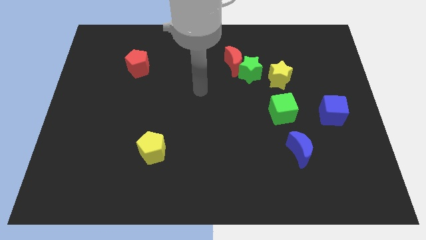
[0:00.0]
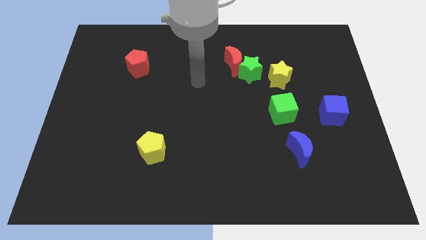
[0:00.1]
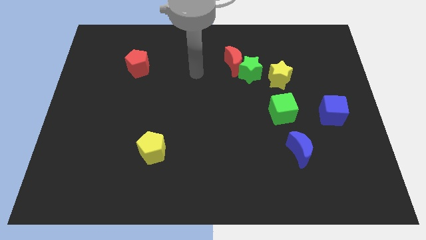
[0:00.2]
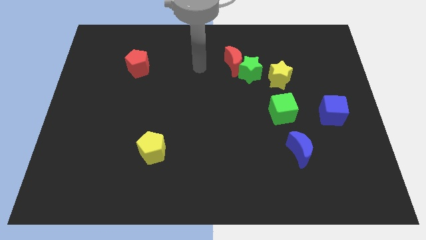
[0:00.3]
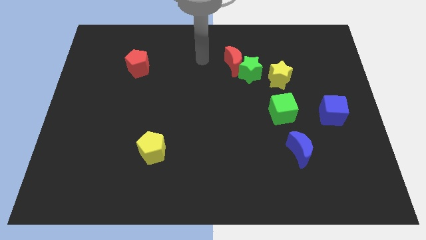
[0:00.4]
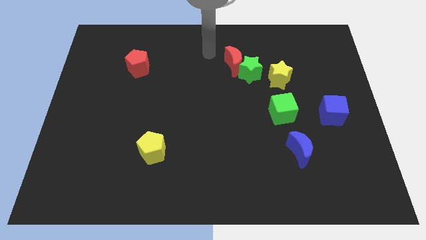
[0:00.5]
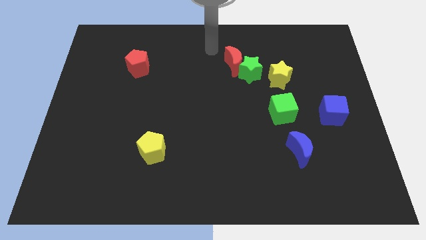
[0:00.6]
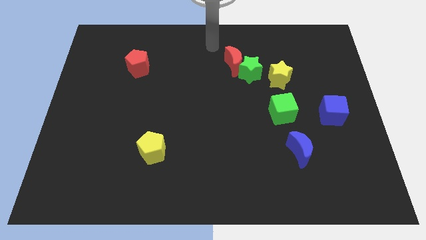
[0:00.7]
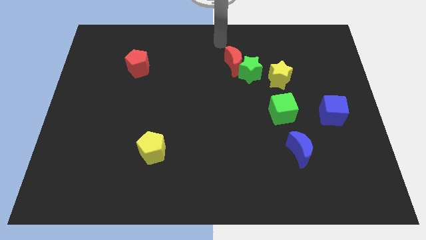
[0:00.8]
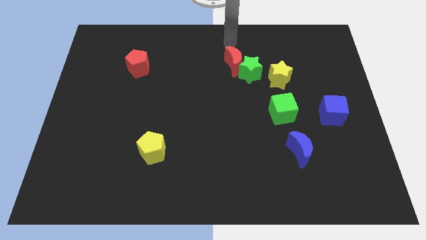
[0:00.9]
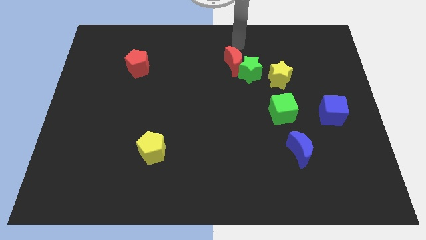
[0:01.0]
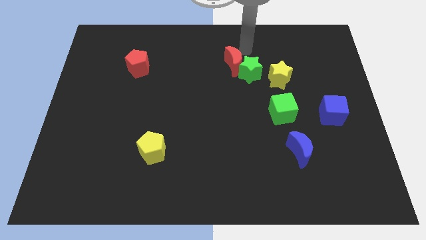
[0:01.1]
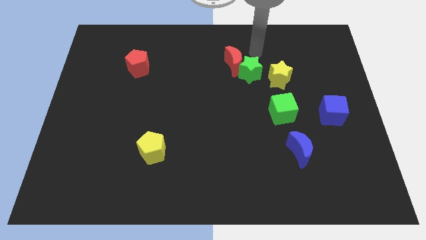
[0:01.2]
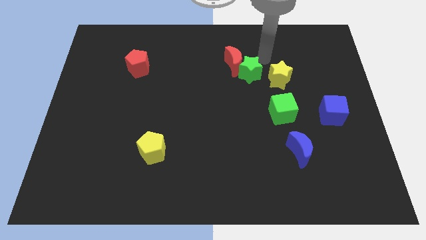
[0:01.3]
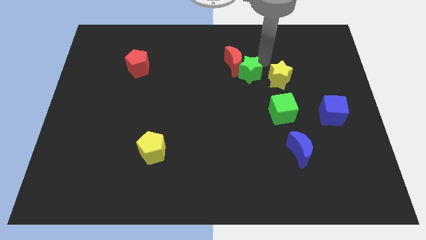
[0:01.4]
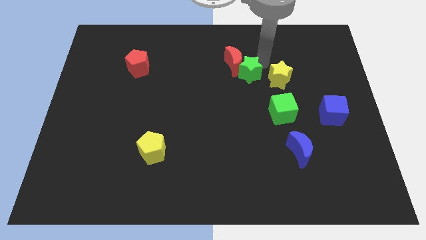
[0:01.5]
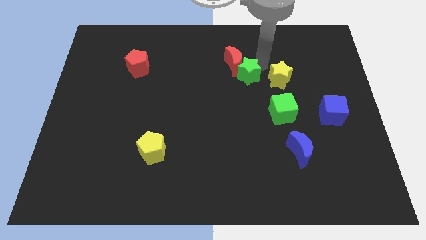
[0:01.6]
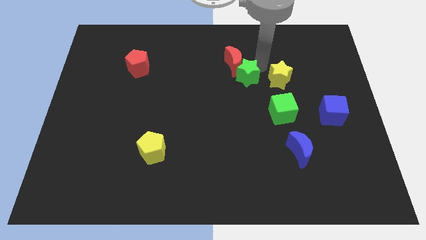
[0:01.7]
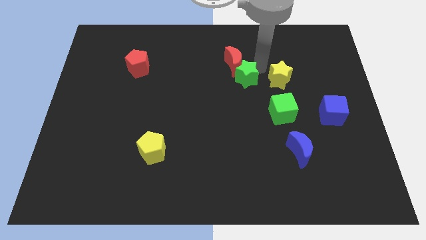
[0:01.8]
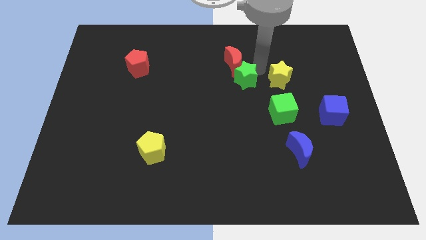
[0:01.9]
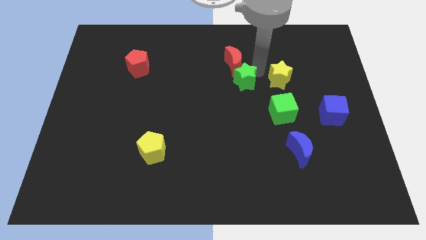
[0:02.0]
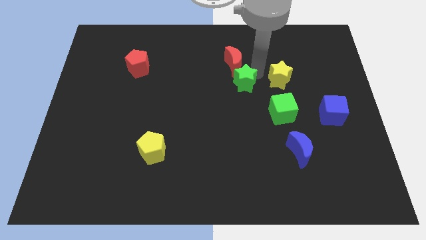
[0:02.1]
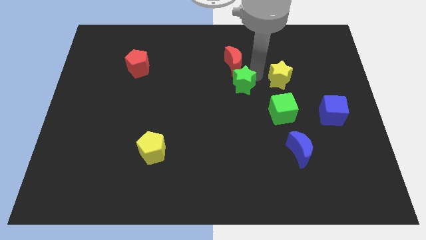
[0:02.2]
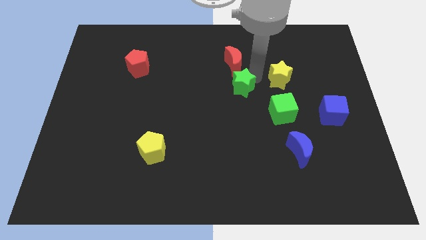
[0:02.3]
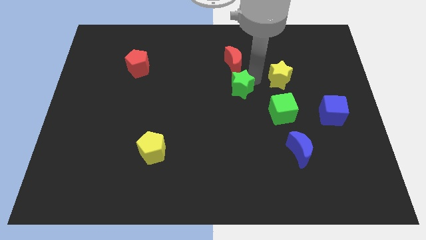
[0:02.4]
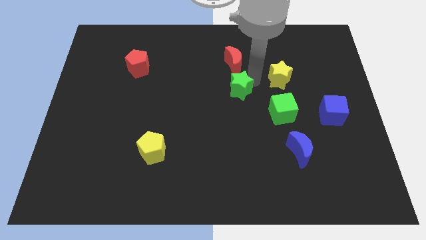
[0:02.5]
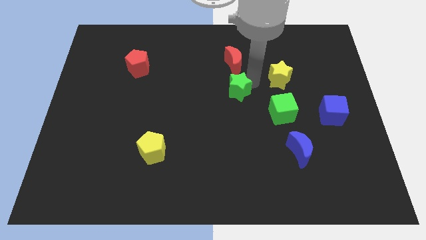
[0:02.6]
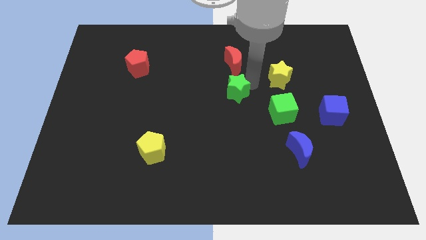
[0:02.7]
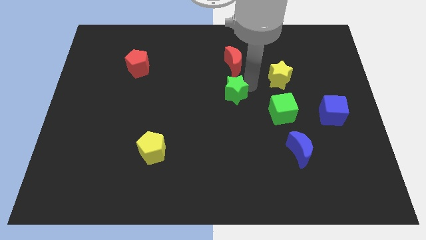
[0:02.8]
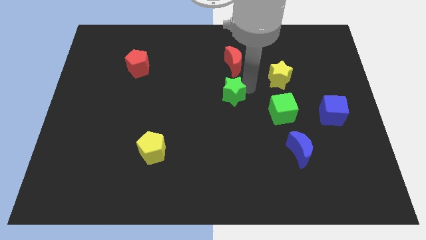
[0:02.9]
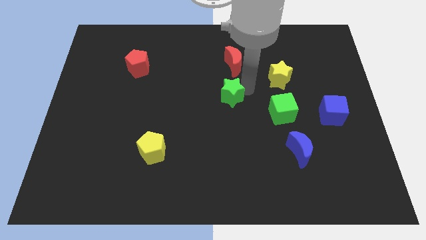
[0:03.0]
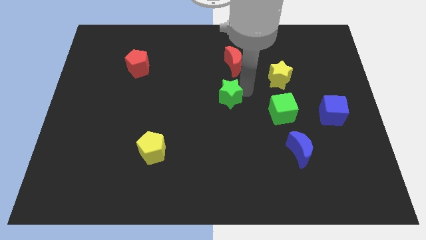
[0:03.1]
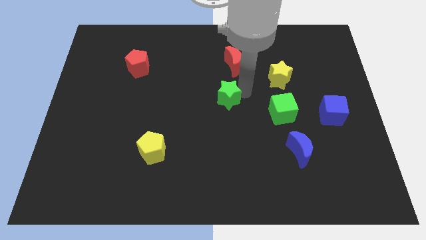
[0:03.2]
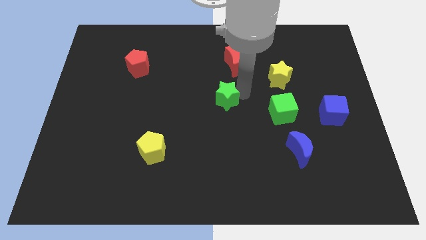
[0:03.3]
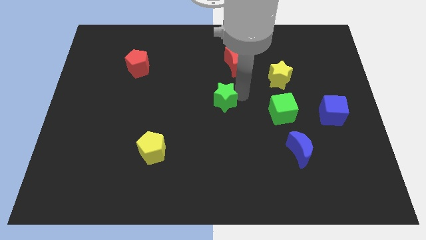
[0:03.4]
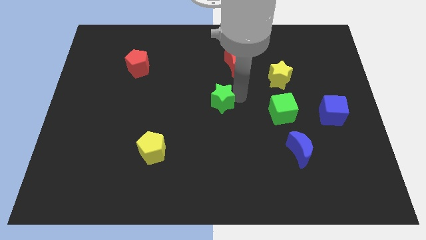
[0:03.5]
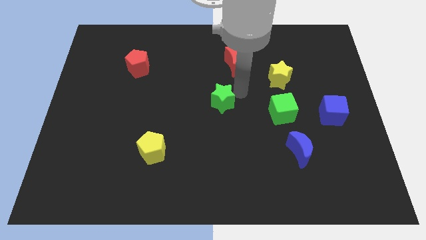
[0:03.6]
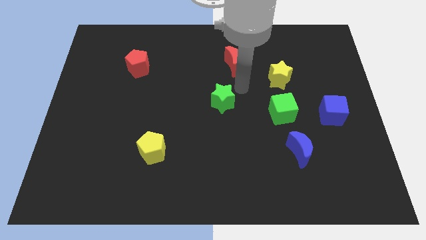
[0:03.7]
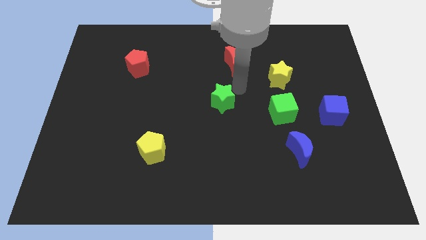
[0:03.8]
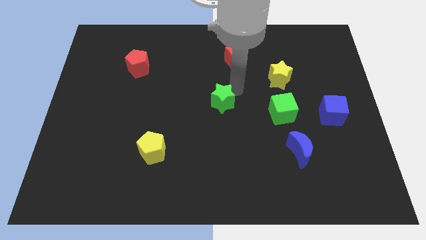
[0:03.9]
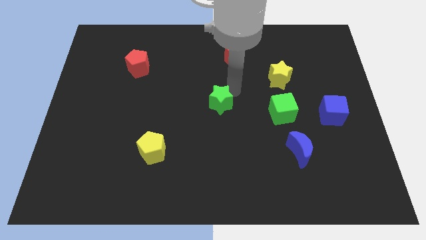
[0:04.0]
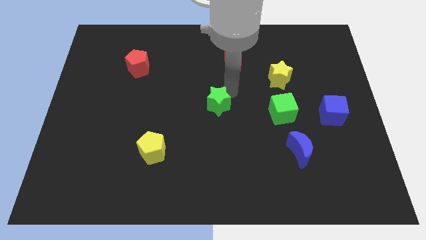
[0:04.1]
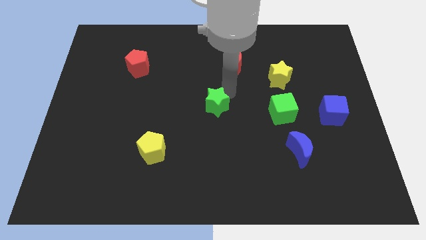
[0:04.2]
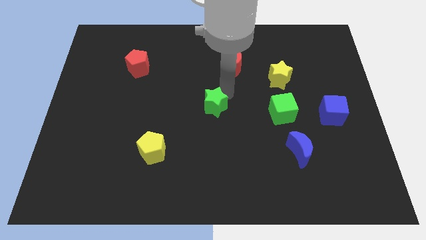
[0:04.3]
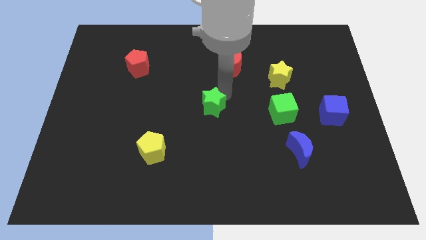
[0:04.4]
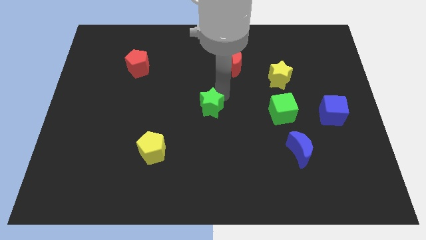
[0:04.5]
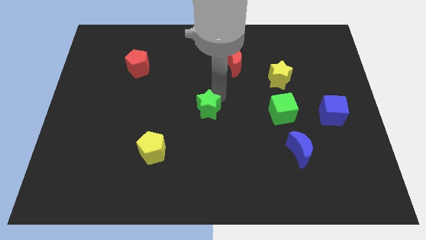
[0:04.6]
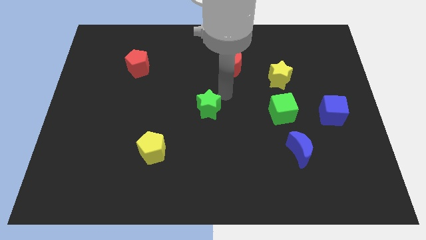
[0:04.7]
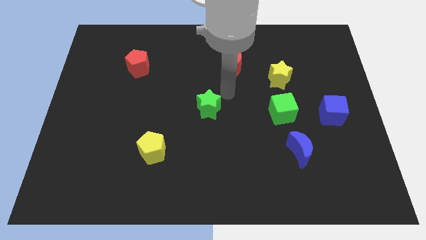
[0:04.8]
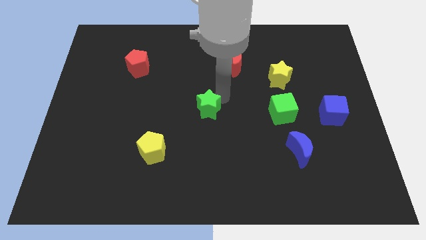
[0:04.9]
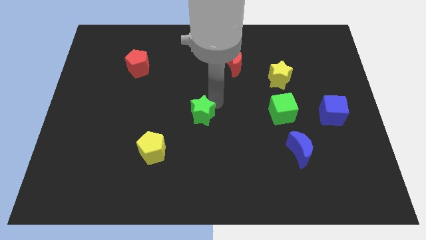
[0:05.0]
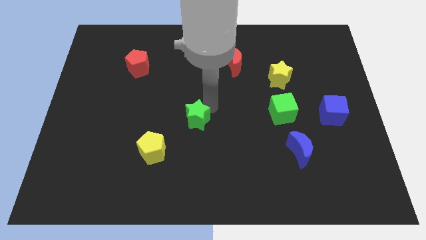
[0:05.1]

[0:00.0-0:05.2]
put the green star to the top right side of the yellow pentagon

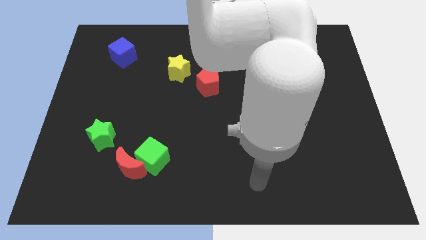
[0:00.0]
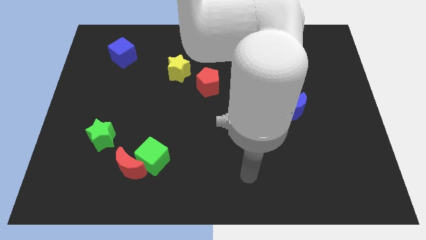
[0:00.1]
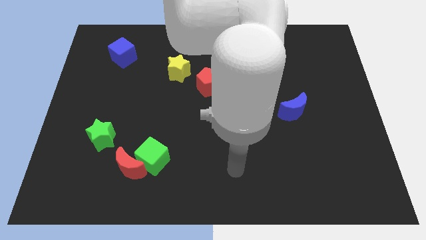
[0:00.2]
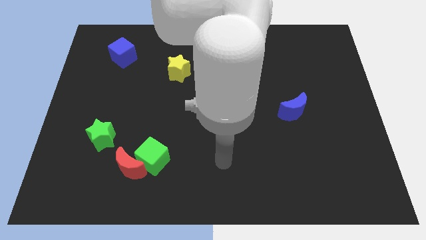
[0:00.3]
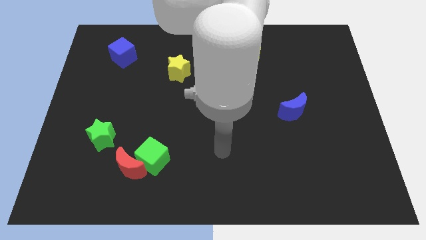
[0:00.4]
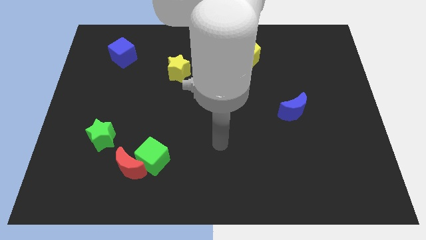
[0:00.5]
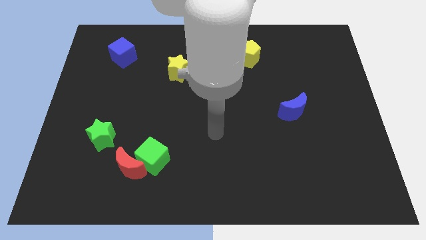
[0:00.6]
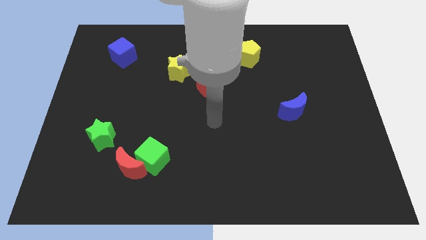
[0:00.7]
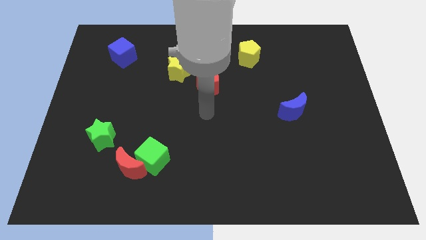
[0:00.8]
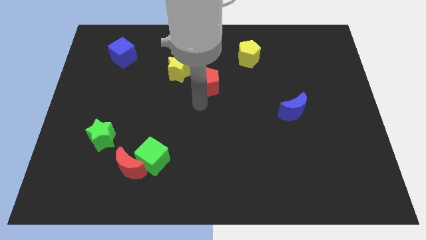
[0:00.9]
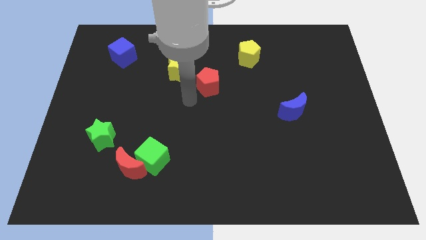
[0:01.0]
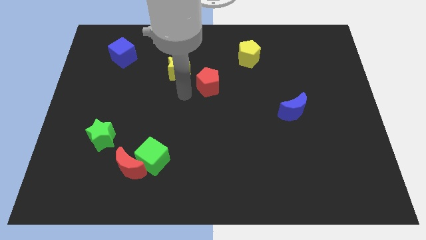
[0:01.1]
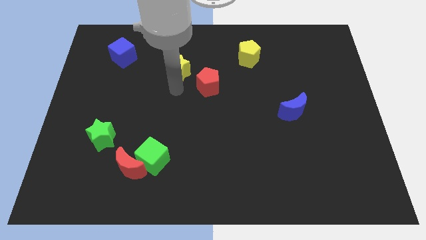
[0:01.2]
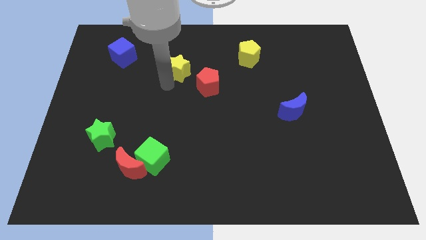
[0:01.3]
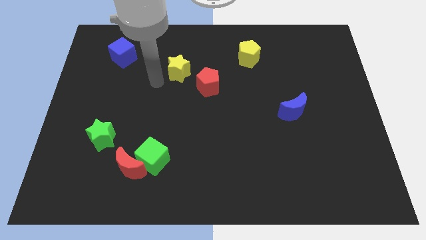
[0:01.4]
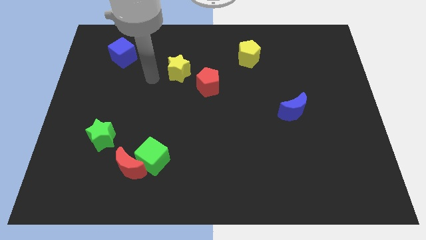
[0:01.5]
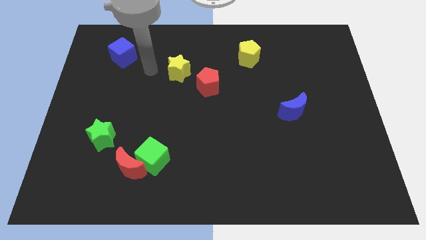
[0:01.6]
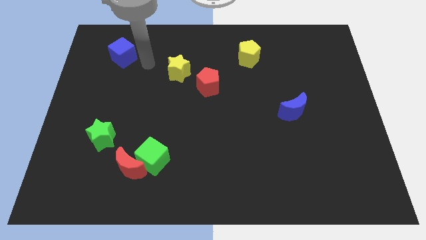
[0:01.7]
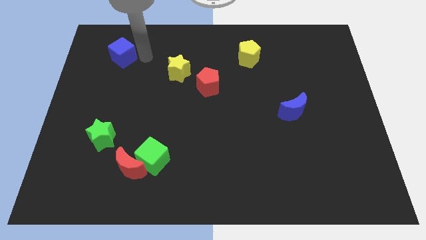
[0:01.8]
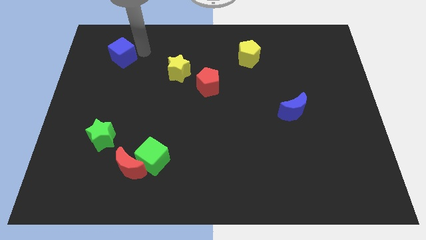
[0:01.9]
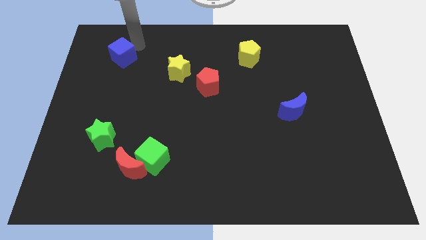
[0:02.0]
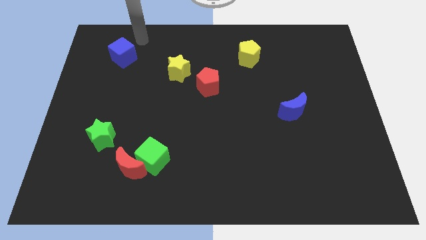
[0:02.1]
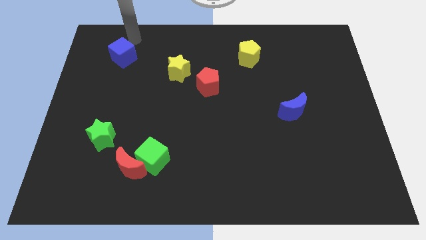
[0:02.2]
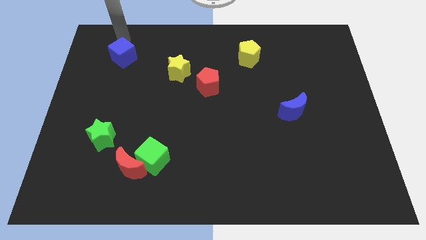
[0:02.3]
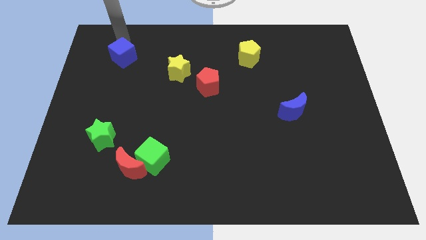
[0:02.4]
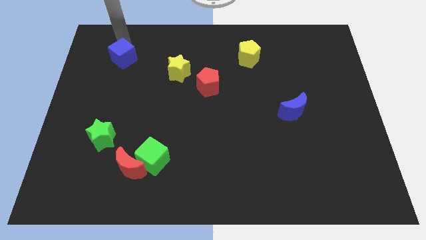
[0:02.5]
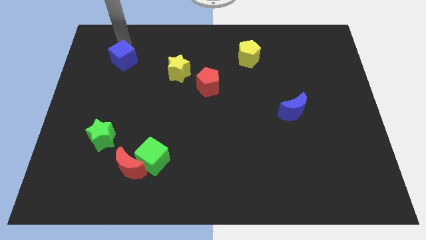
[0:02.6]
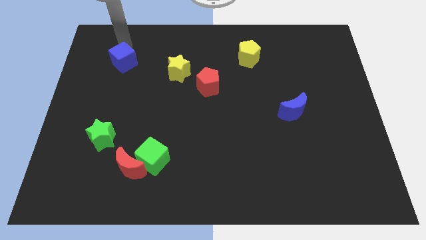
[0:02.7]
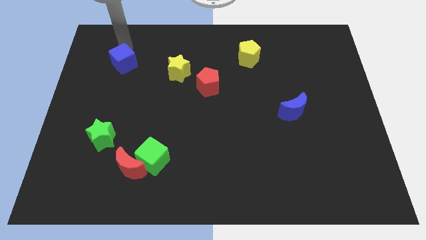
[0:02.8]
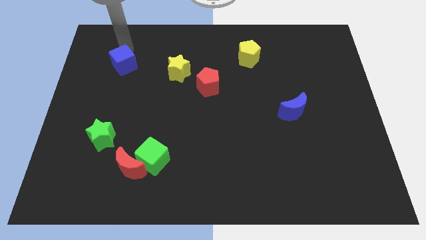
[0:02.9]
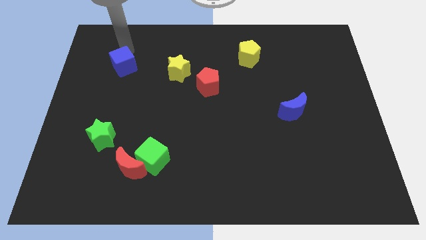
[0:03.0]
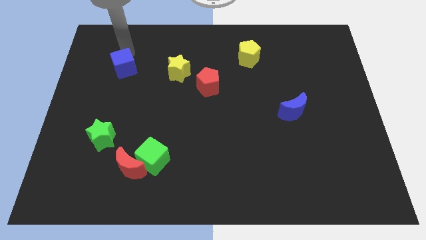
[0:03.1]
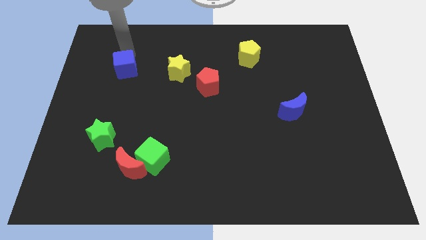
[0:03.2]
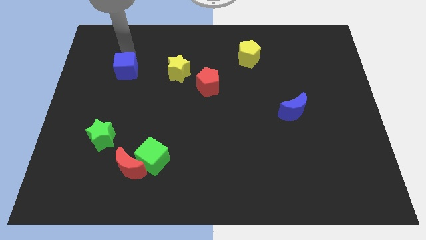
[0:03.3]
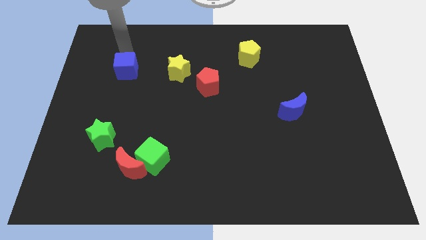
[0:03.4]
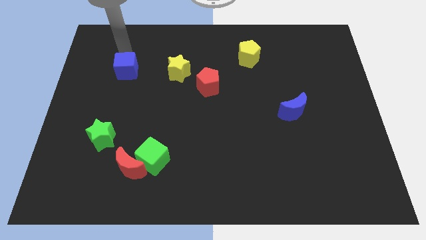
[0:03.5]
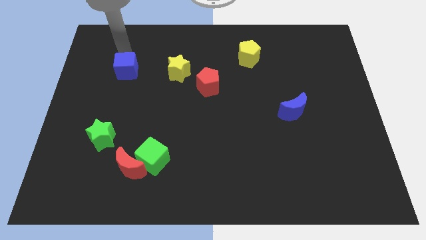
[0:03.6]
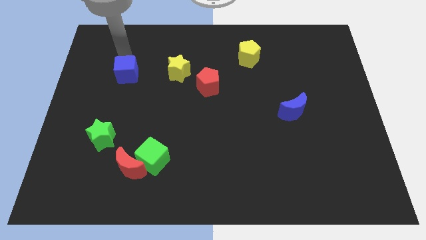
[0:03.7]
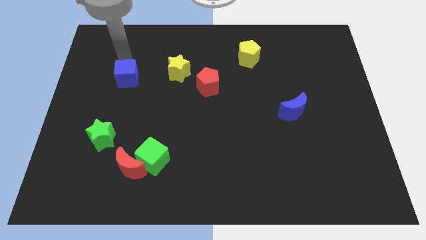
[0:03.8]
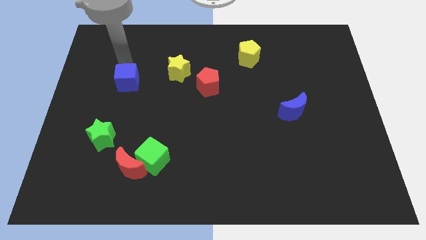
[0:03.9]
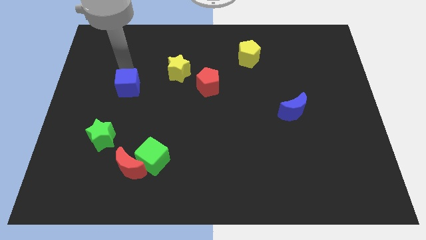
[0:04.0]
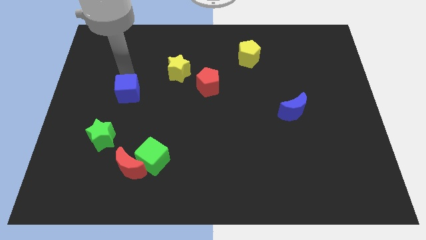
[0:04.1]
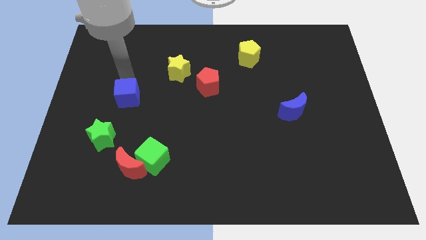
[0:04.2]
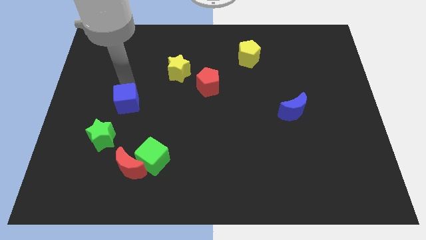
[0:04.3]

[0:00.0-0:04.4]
put the blue cube diagonally up and to the right of the green star
